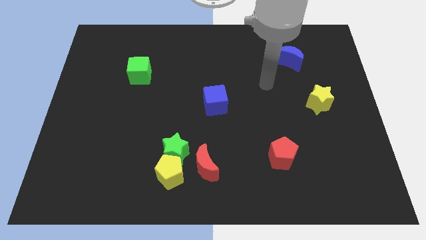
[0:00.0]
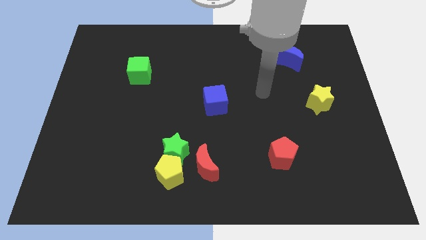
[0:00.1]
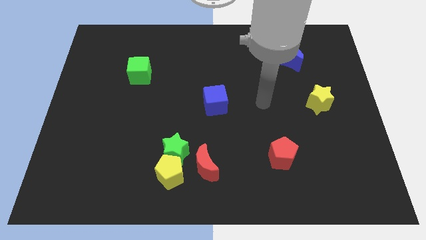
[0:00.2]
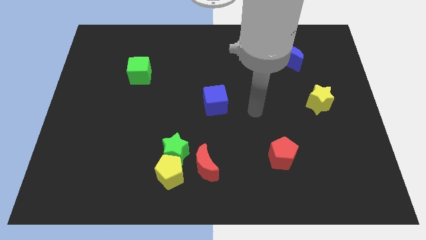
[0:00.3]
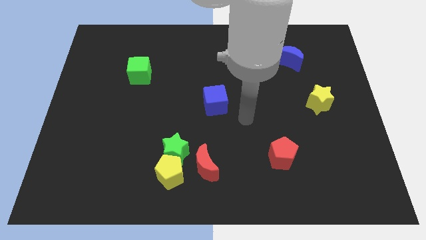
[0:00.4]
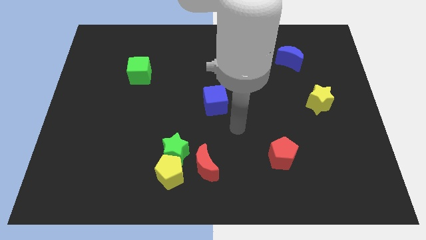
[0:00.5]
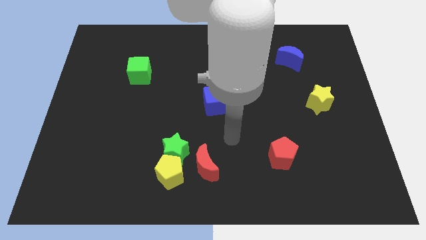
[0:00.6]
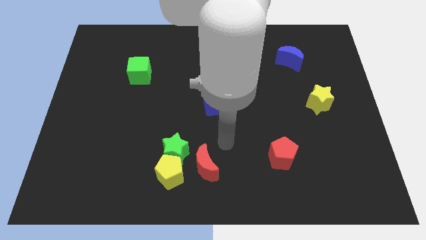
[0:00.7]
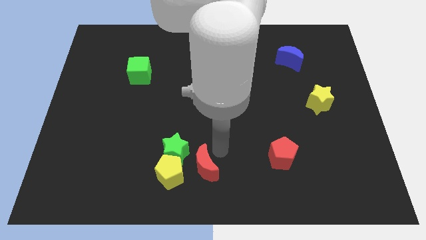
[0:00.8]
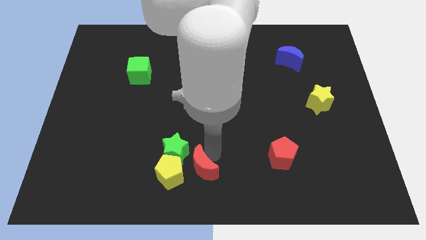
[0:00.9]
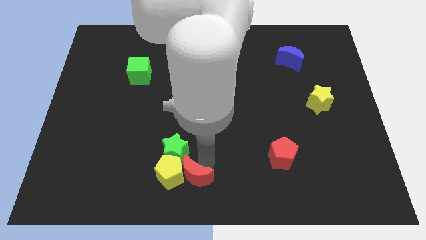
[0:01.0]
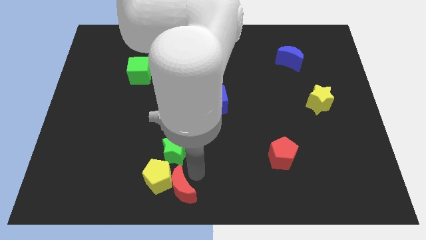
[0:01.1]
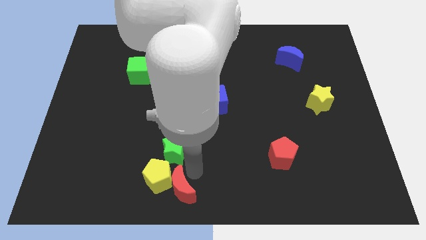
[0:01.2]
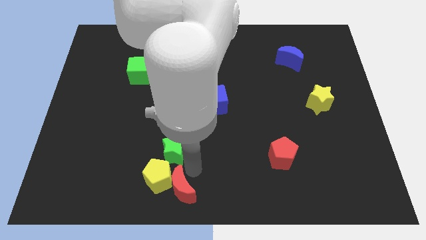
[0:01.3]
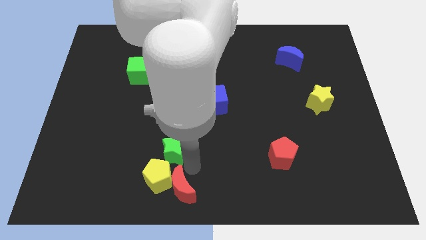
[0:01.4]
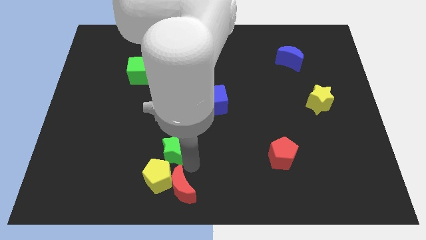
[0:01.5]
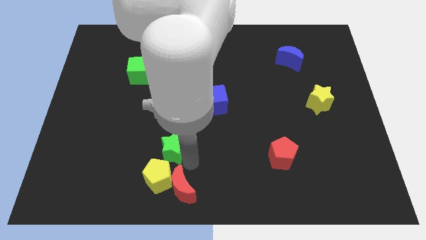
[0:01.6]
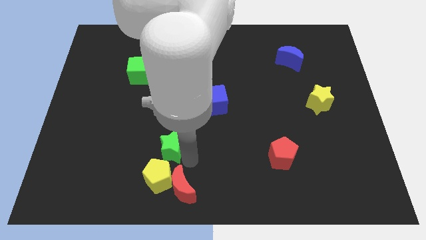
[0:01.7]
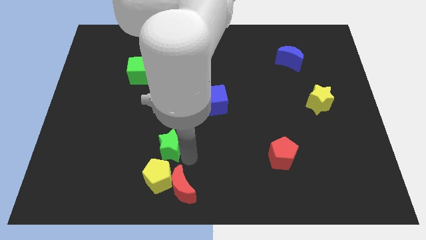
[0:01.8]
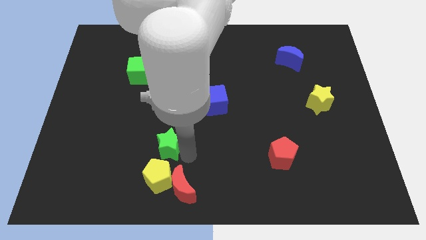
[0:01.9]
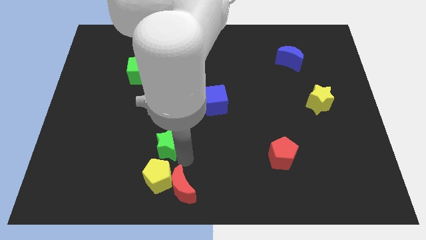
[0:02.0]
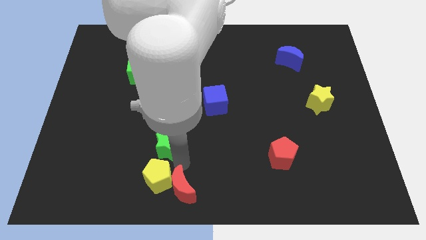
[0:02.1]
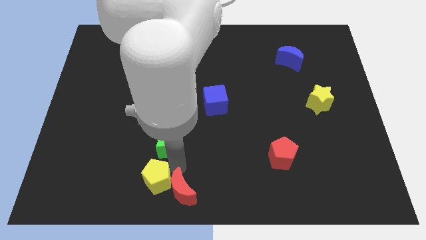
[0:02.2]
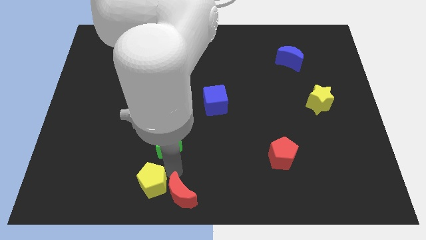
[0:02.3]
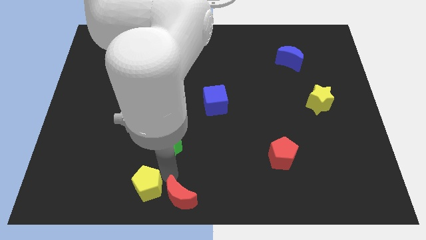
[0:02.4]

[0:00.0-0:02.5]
move the green star away from the yellow pentagon and red moon

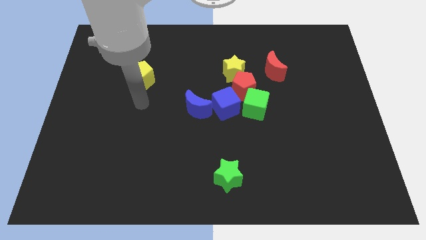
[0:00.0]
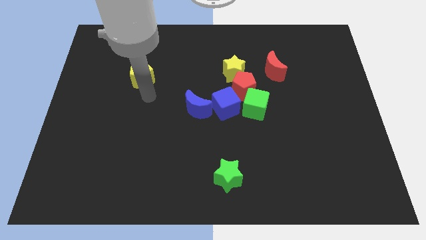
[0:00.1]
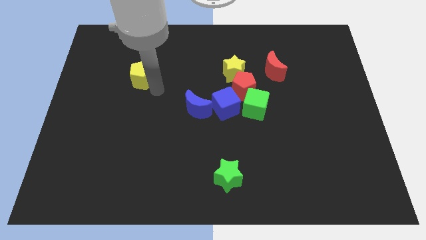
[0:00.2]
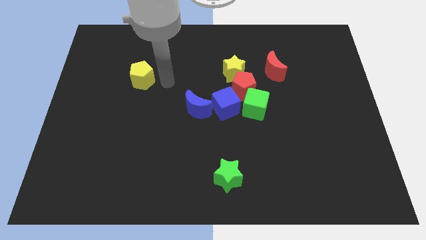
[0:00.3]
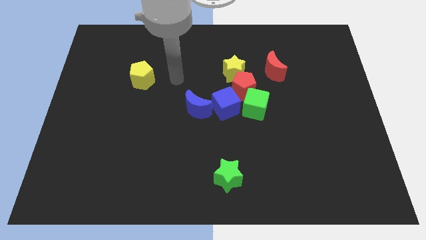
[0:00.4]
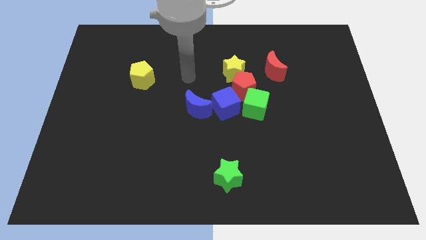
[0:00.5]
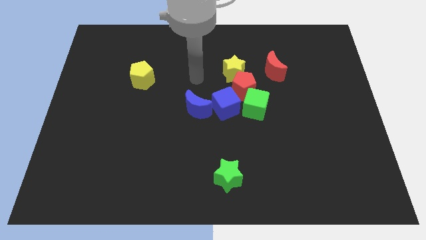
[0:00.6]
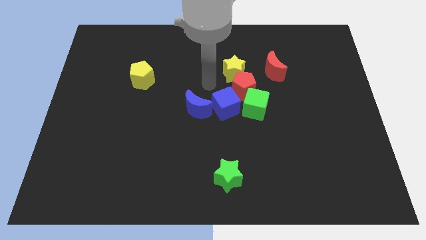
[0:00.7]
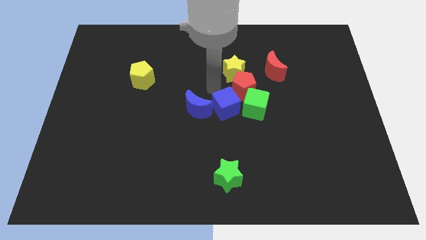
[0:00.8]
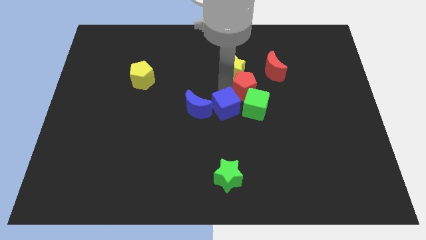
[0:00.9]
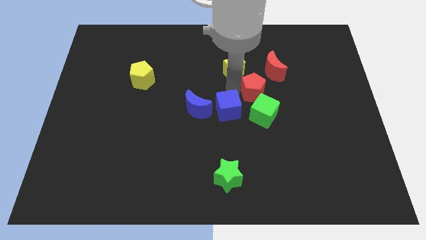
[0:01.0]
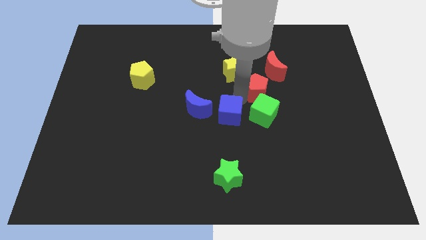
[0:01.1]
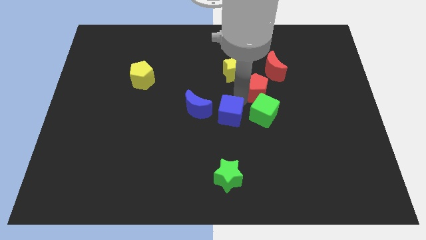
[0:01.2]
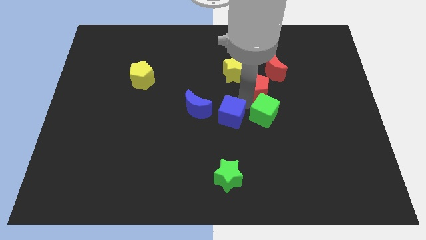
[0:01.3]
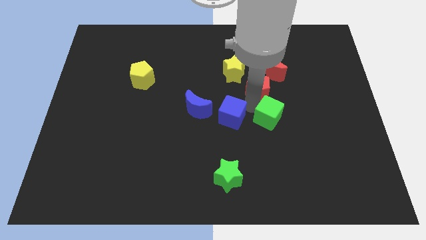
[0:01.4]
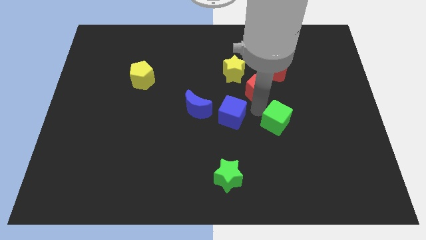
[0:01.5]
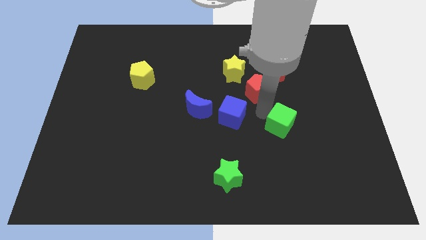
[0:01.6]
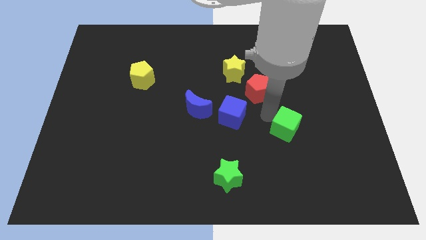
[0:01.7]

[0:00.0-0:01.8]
move the green cube away from the red pentagon and blue cube

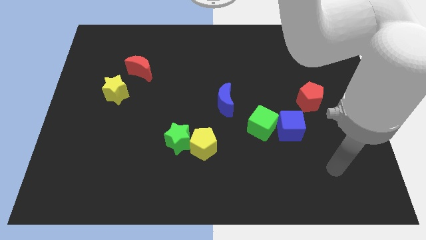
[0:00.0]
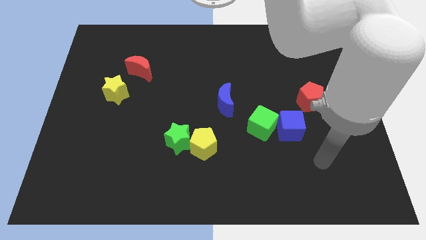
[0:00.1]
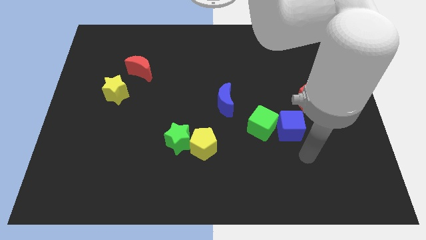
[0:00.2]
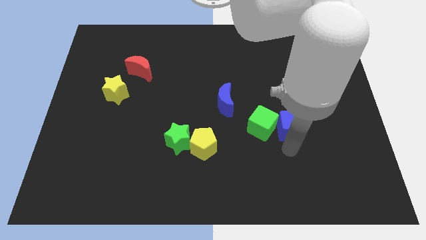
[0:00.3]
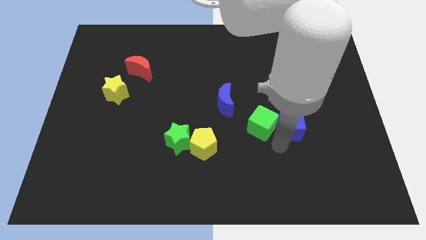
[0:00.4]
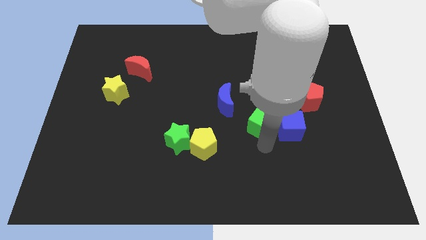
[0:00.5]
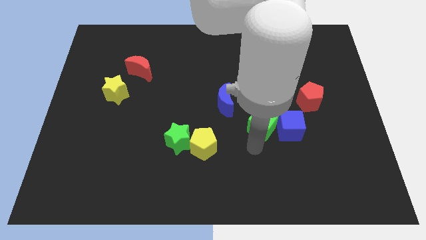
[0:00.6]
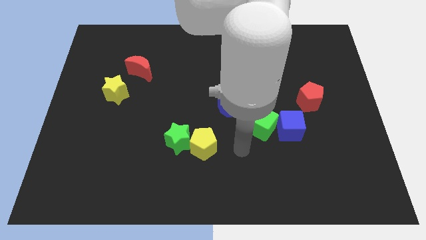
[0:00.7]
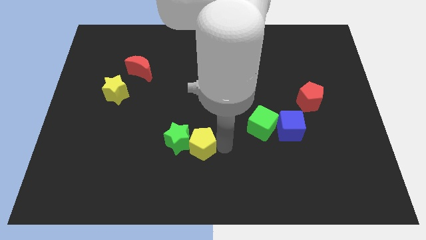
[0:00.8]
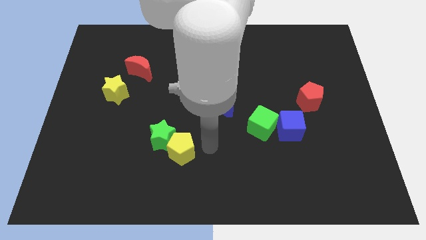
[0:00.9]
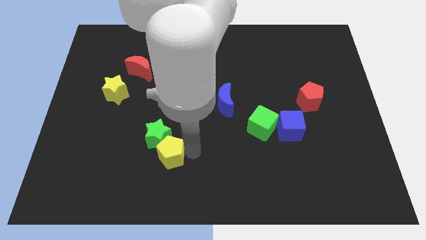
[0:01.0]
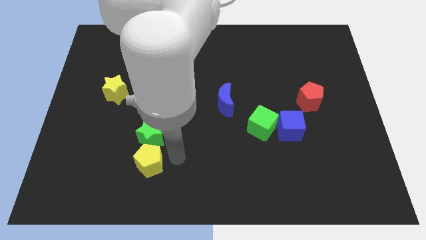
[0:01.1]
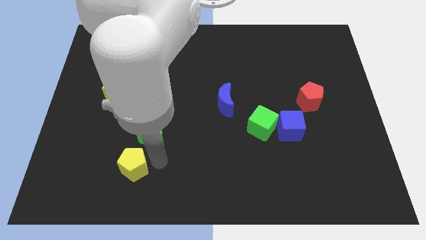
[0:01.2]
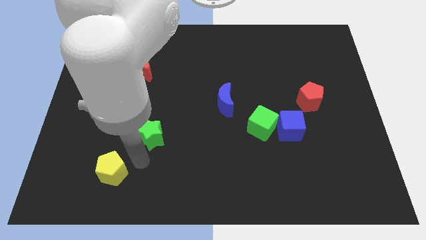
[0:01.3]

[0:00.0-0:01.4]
separate the green star from the yellow pentagon

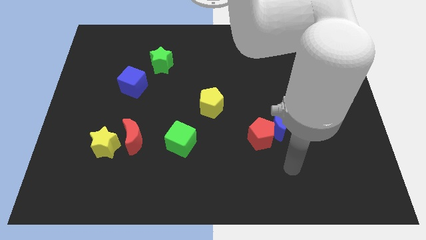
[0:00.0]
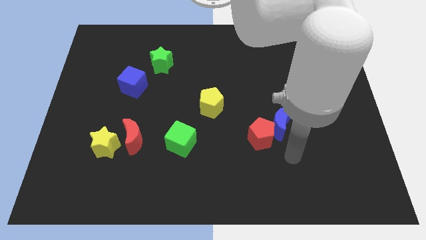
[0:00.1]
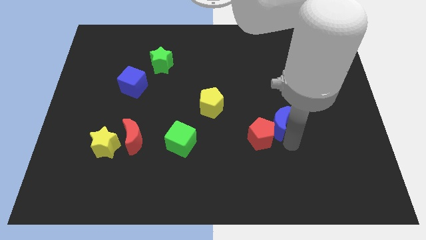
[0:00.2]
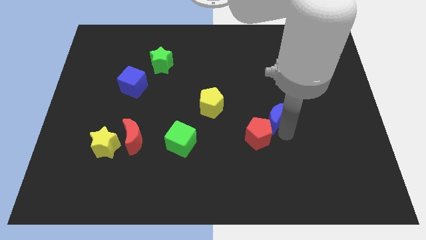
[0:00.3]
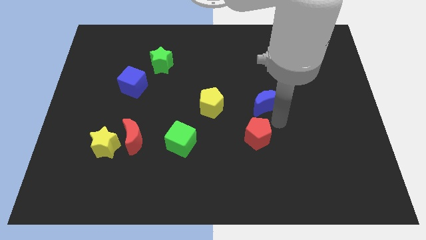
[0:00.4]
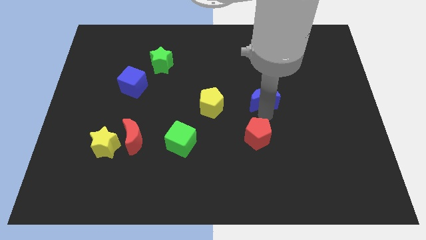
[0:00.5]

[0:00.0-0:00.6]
pull the red pentagon apart from the blue moon

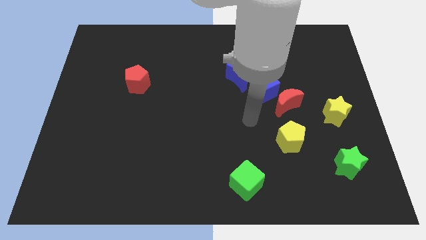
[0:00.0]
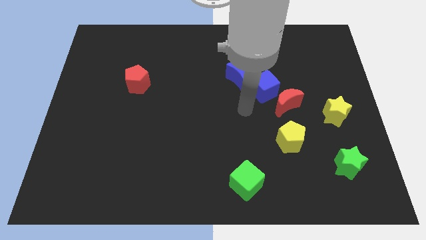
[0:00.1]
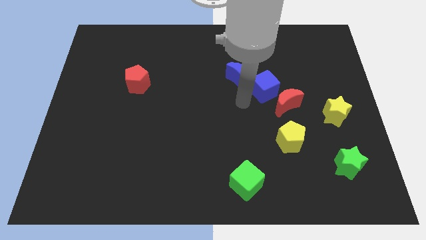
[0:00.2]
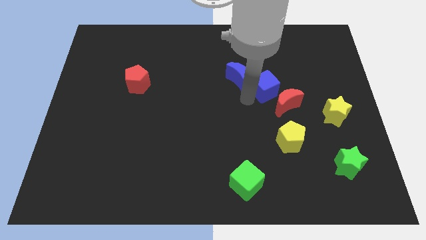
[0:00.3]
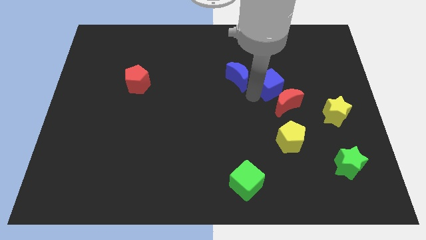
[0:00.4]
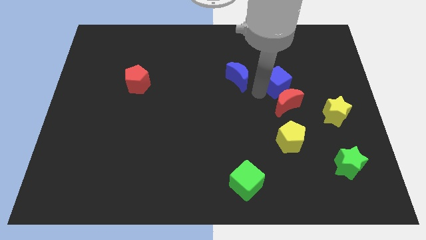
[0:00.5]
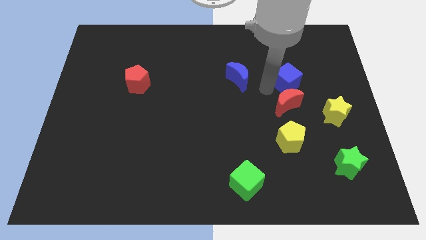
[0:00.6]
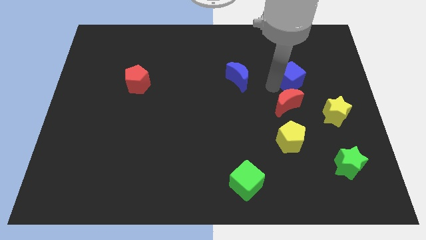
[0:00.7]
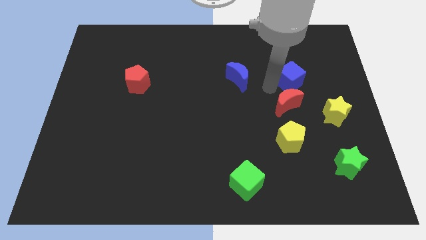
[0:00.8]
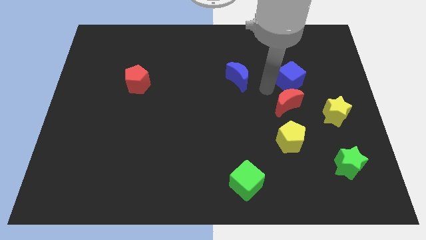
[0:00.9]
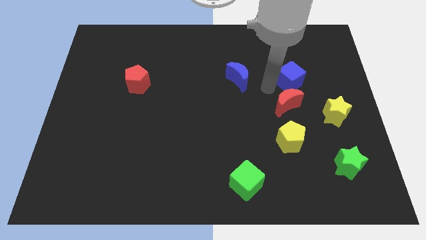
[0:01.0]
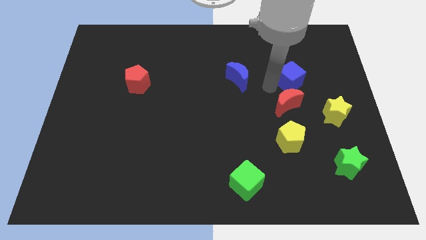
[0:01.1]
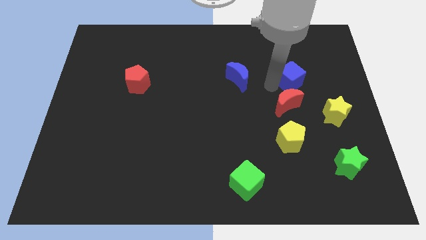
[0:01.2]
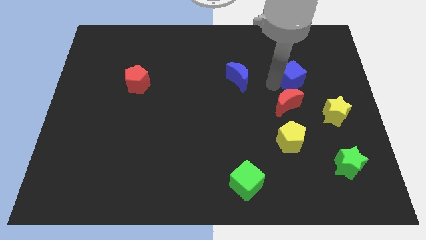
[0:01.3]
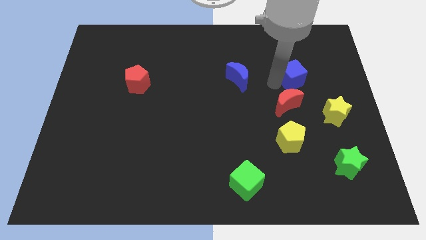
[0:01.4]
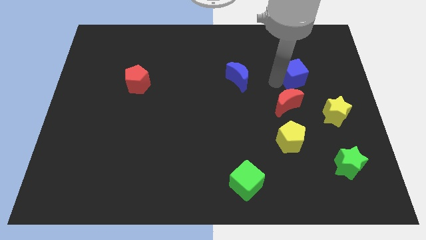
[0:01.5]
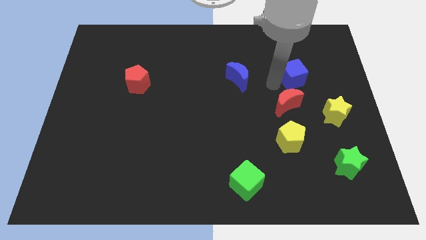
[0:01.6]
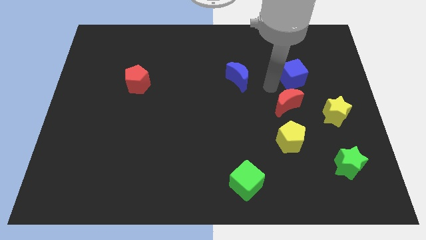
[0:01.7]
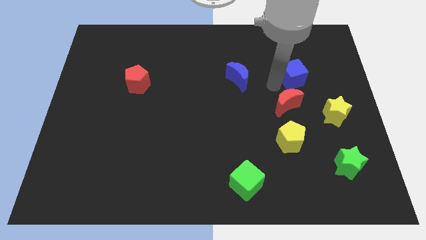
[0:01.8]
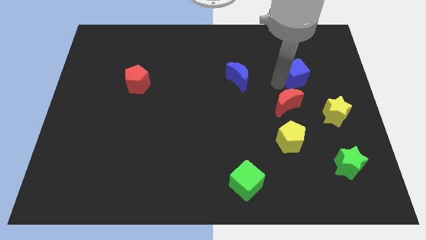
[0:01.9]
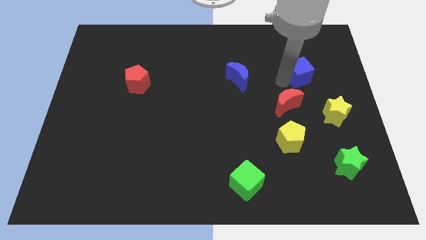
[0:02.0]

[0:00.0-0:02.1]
pull the blue cube apart from the red moon and blue moon

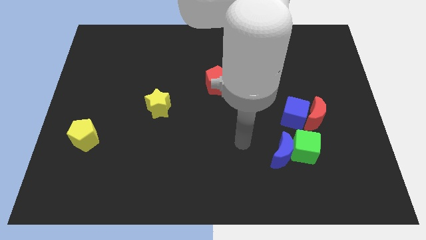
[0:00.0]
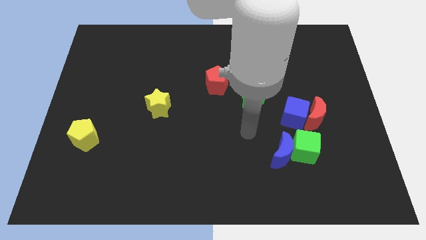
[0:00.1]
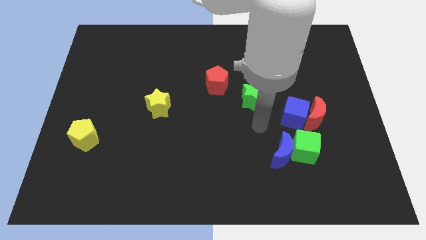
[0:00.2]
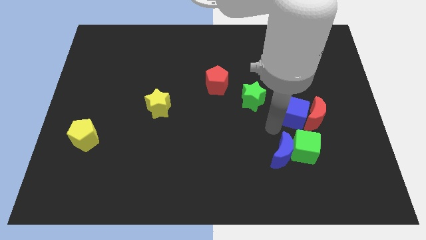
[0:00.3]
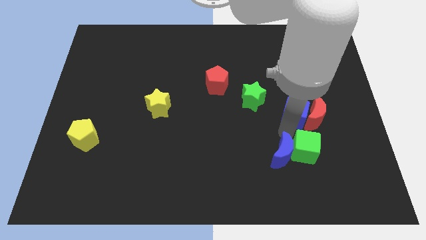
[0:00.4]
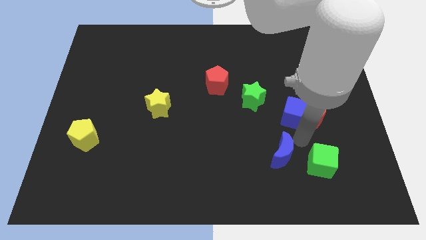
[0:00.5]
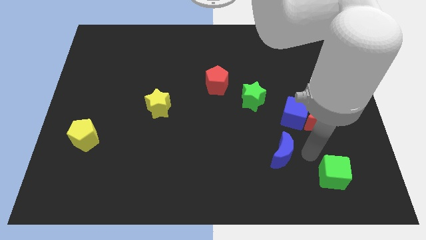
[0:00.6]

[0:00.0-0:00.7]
move the blue moon away from the green cube

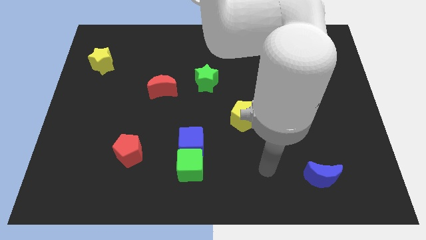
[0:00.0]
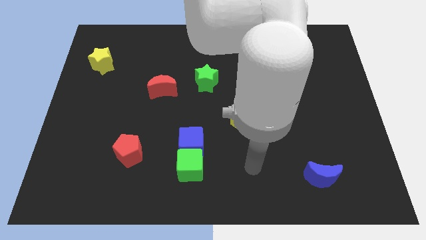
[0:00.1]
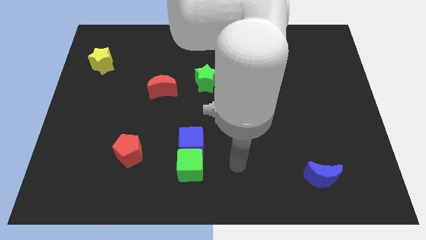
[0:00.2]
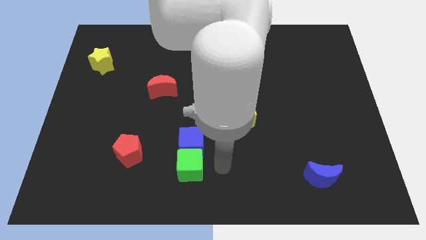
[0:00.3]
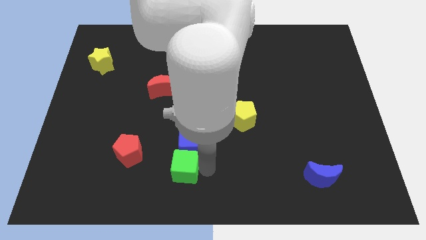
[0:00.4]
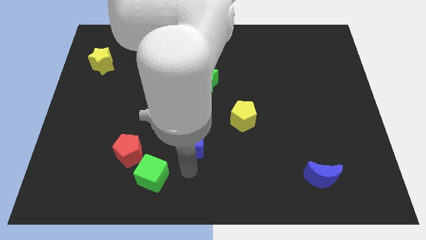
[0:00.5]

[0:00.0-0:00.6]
pull the blue cube apart from the green cube
